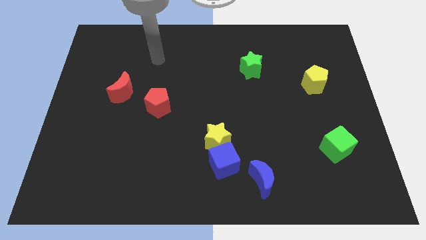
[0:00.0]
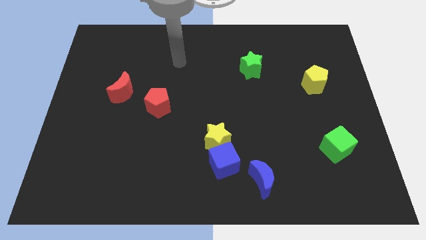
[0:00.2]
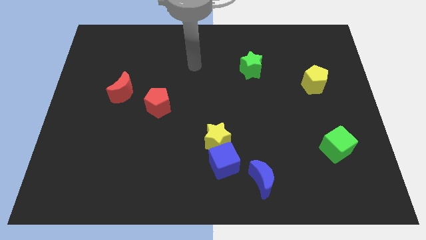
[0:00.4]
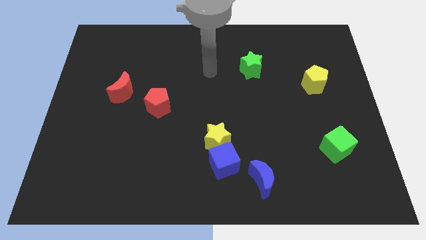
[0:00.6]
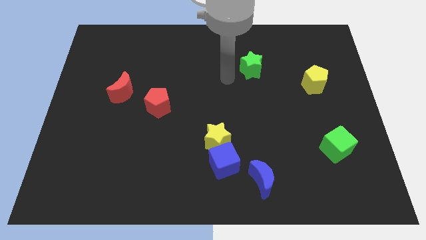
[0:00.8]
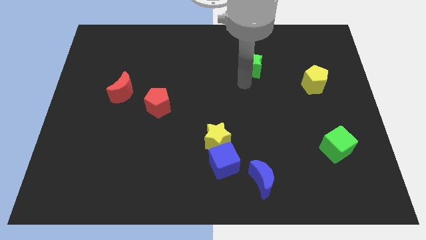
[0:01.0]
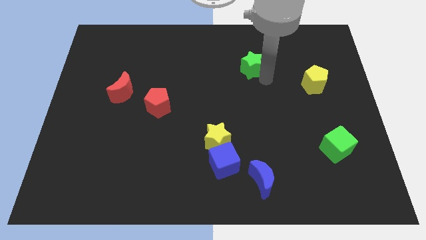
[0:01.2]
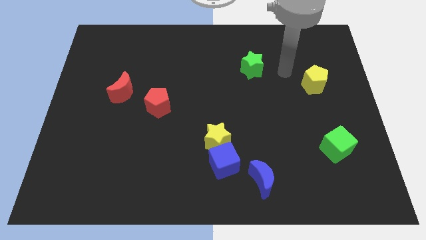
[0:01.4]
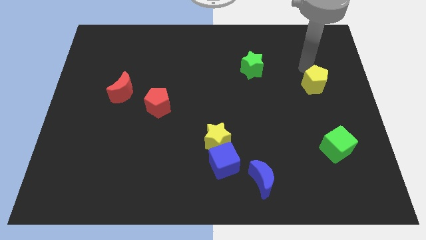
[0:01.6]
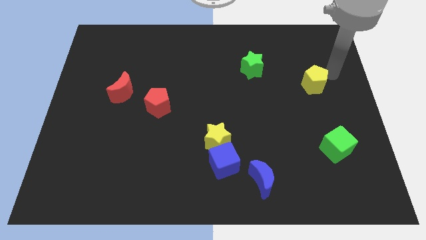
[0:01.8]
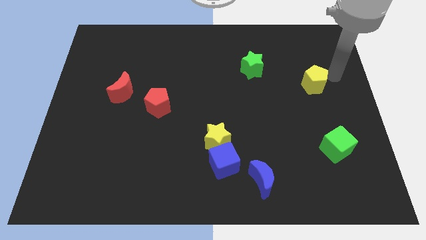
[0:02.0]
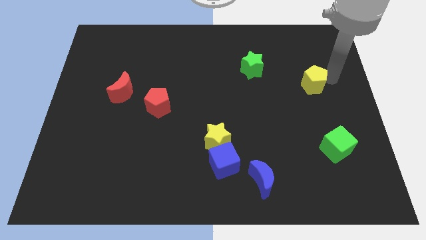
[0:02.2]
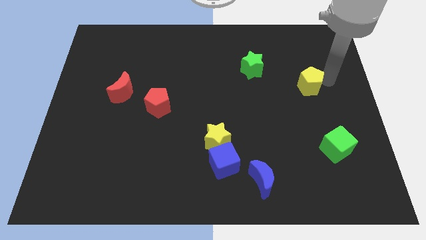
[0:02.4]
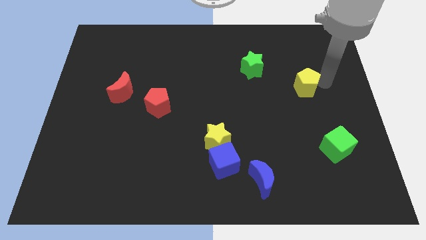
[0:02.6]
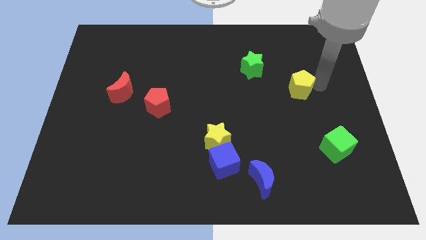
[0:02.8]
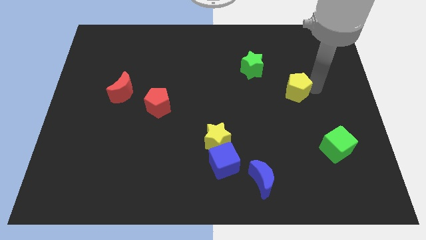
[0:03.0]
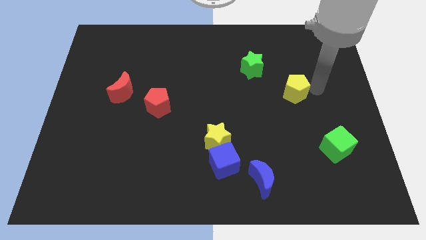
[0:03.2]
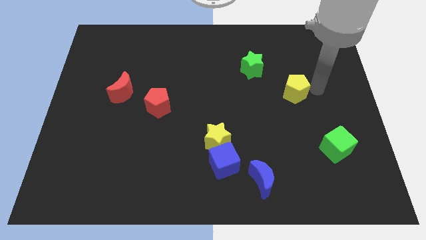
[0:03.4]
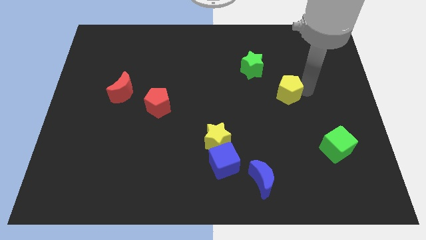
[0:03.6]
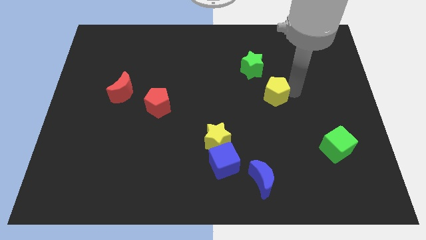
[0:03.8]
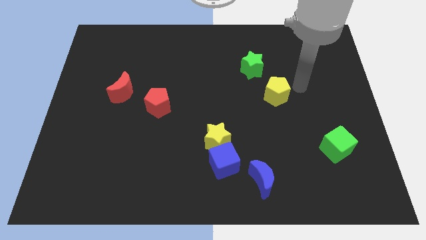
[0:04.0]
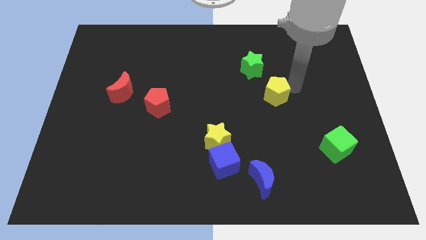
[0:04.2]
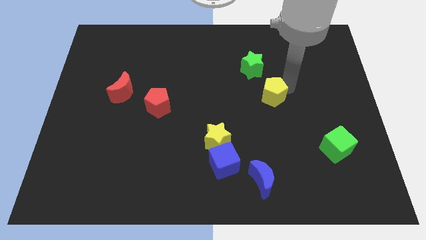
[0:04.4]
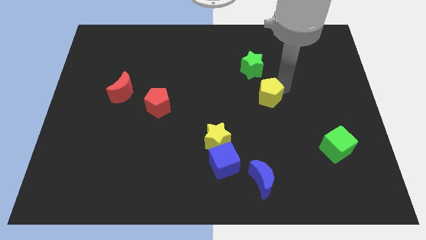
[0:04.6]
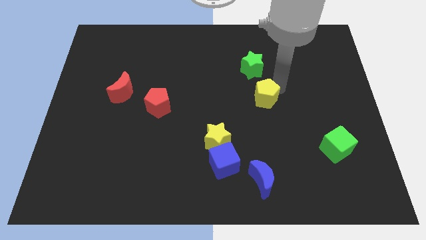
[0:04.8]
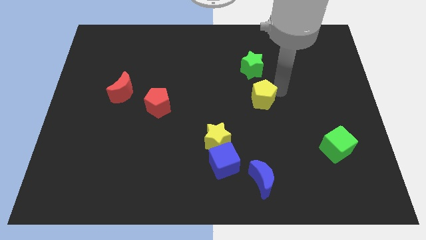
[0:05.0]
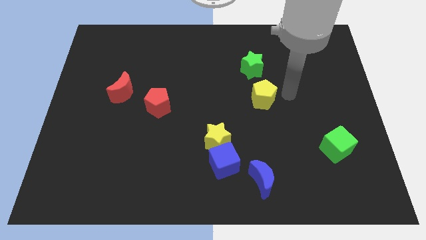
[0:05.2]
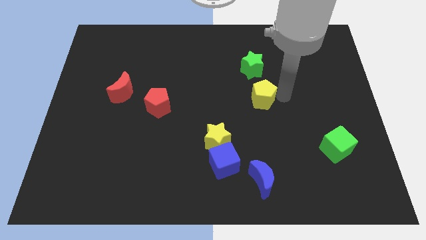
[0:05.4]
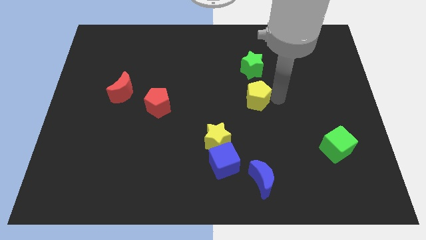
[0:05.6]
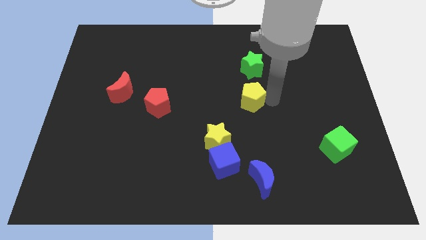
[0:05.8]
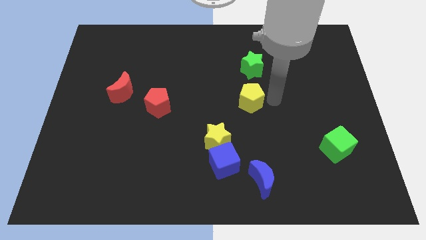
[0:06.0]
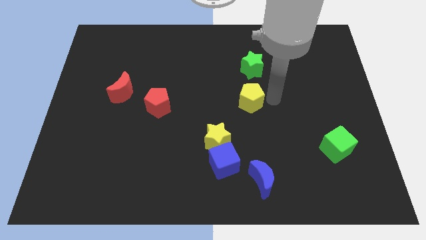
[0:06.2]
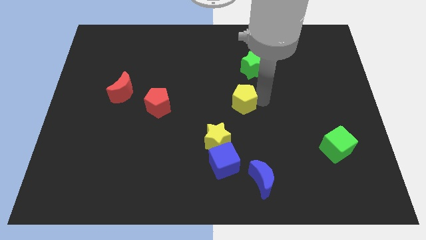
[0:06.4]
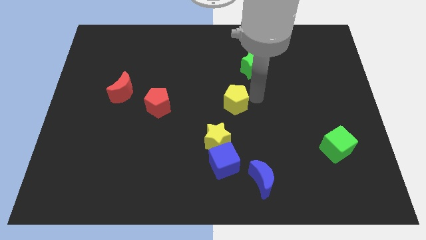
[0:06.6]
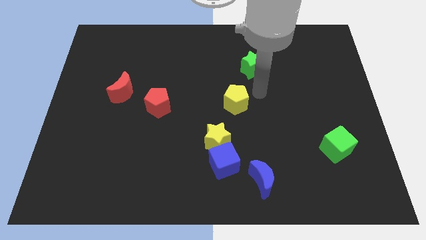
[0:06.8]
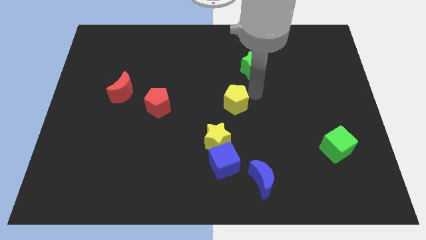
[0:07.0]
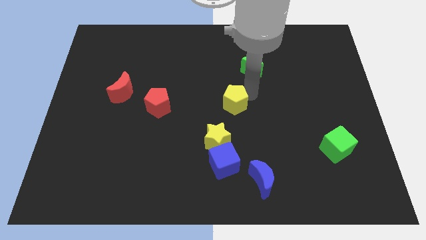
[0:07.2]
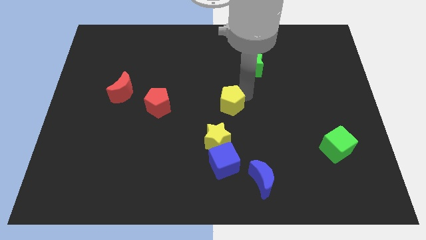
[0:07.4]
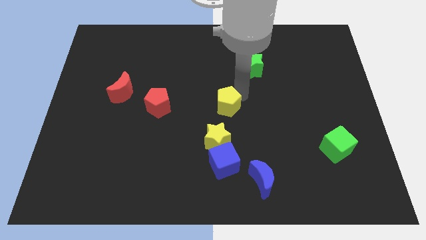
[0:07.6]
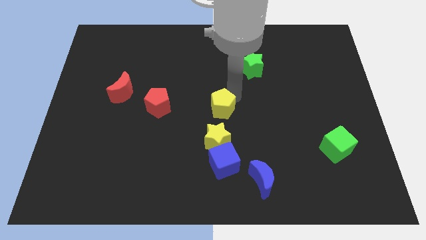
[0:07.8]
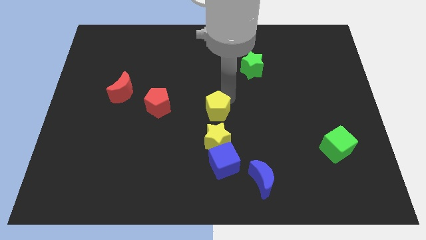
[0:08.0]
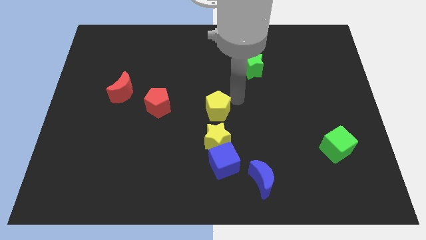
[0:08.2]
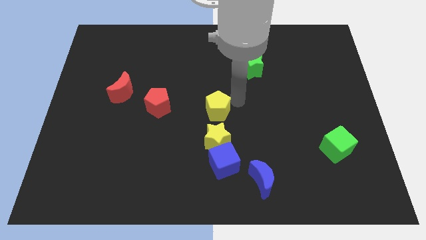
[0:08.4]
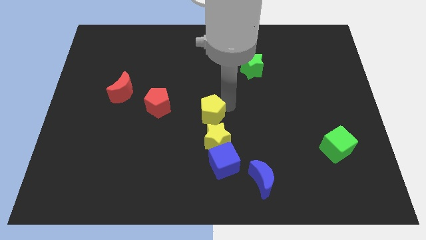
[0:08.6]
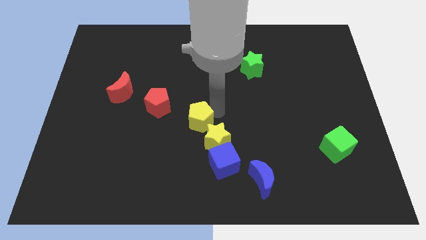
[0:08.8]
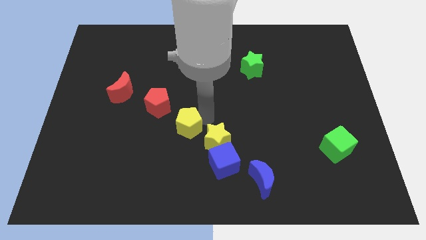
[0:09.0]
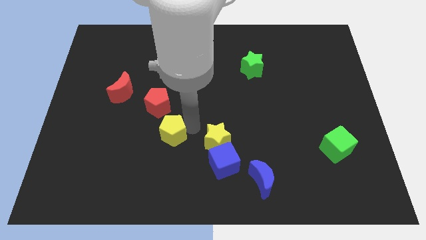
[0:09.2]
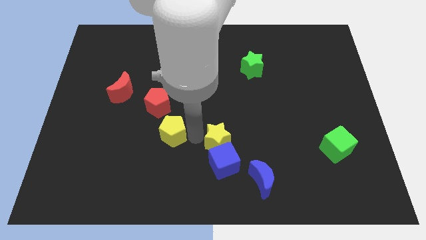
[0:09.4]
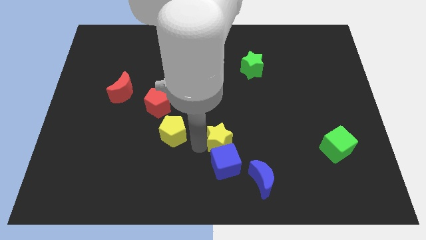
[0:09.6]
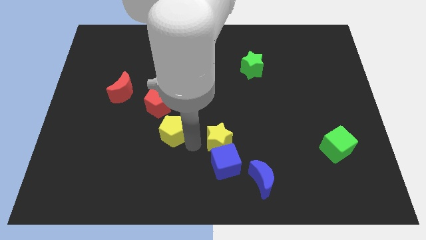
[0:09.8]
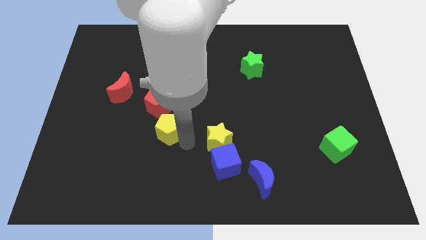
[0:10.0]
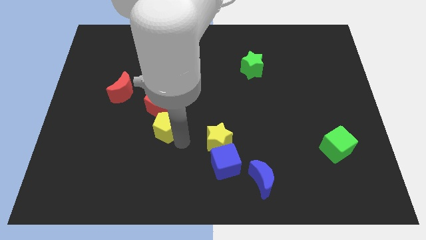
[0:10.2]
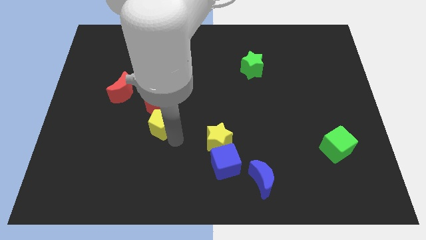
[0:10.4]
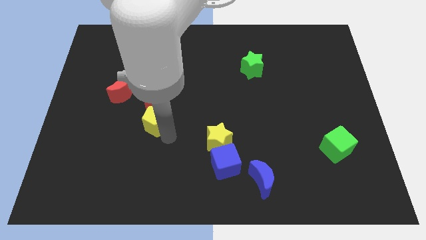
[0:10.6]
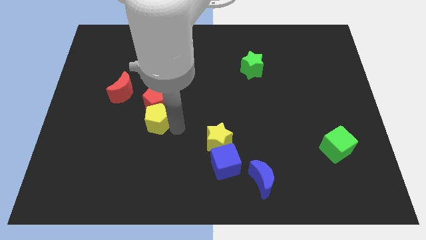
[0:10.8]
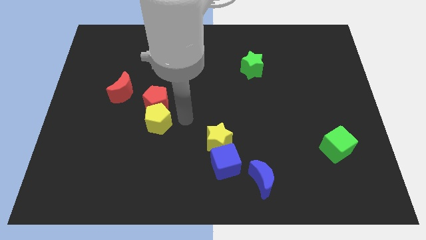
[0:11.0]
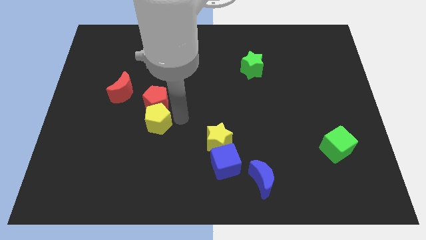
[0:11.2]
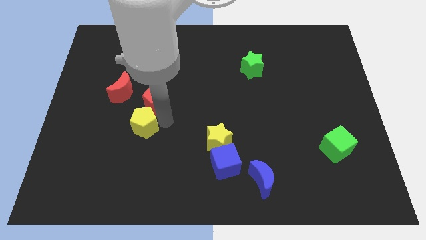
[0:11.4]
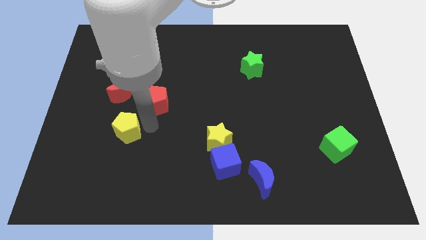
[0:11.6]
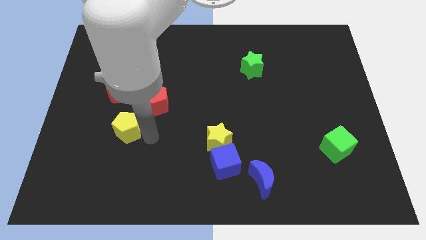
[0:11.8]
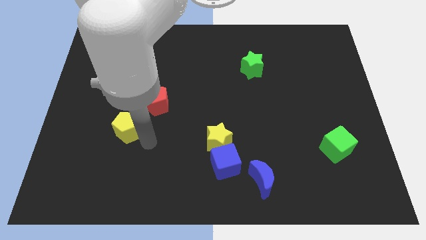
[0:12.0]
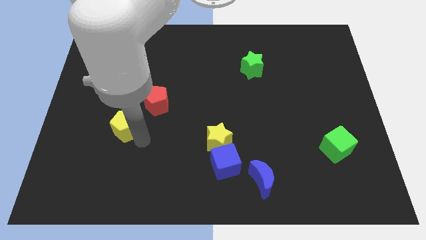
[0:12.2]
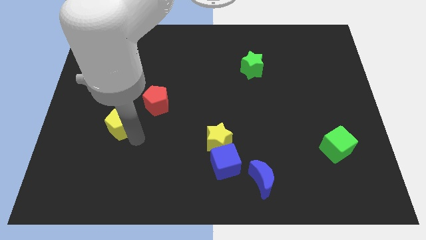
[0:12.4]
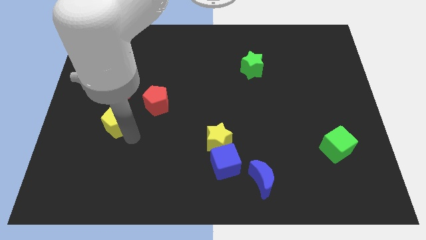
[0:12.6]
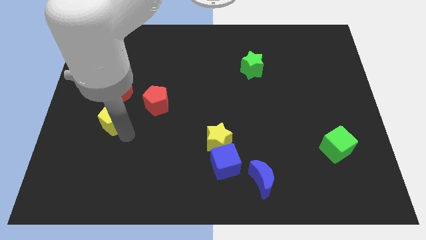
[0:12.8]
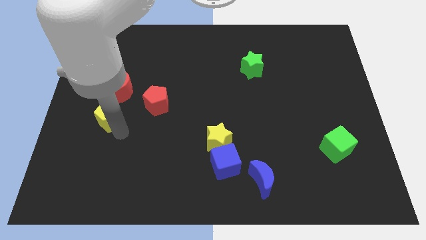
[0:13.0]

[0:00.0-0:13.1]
push the yellow pentagon diagonally down and to the left of the red moon
